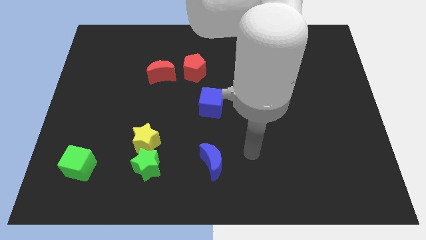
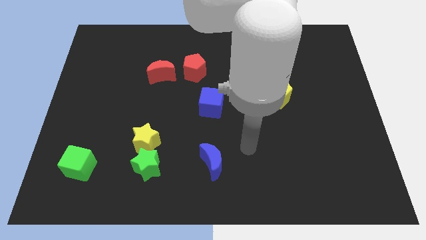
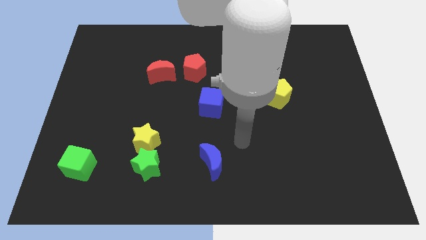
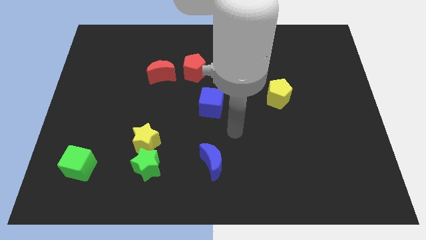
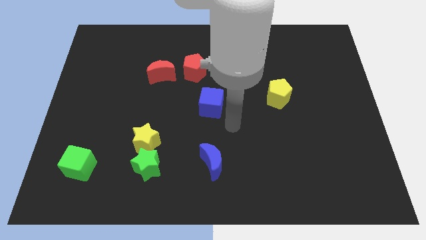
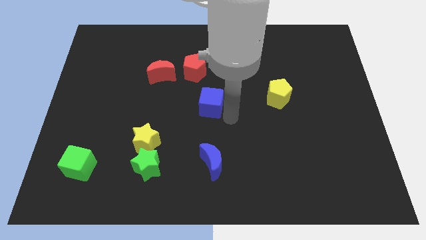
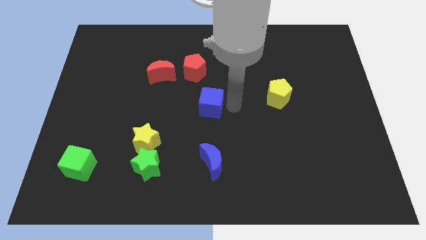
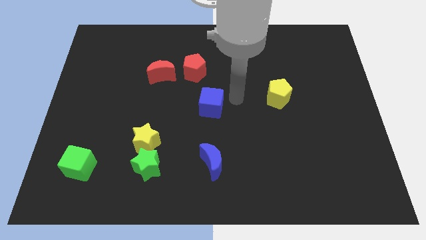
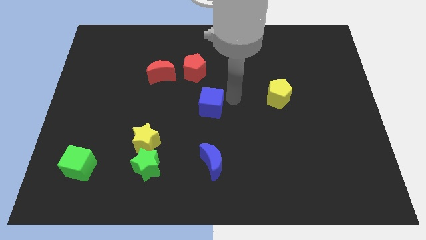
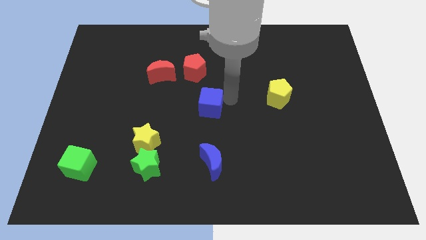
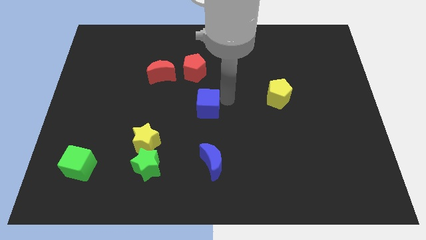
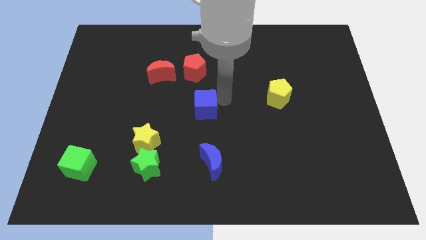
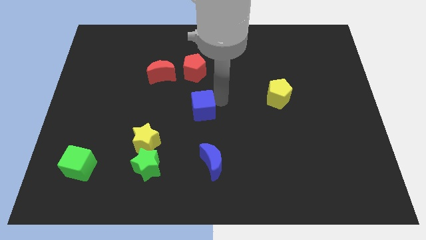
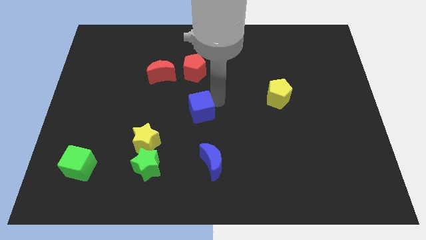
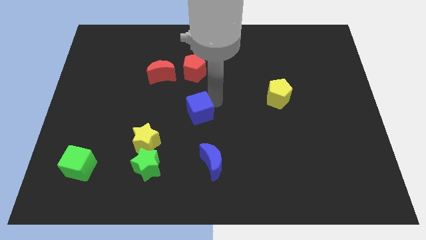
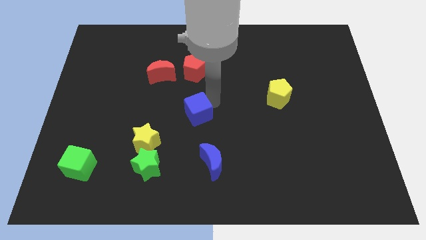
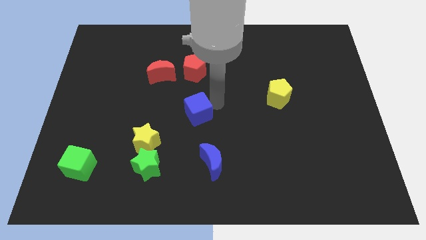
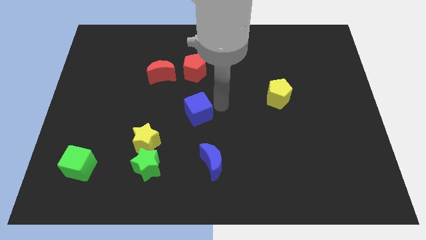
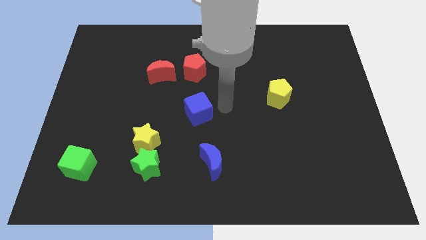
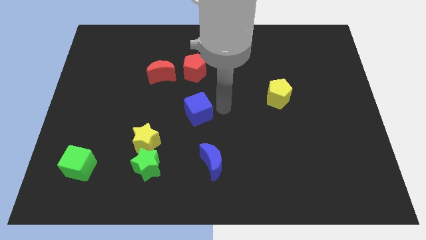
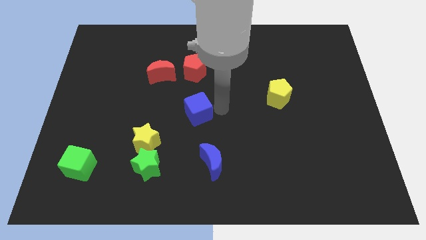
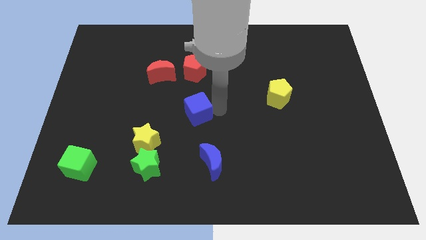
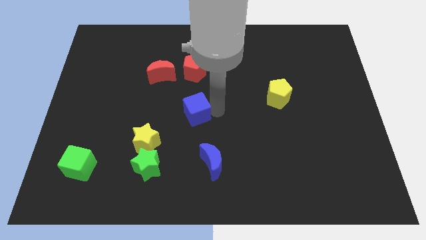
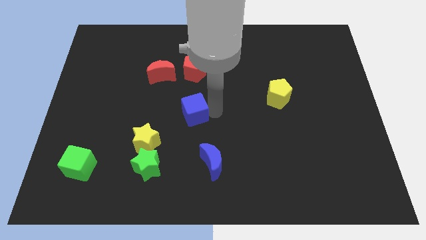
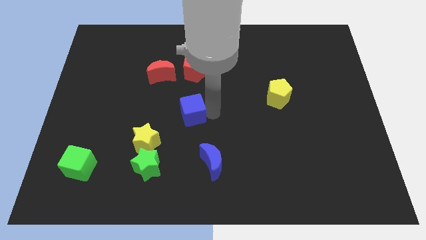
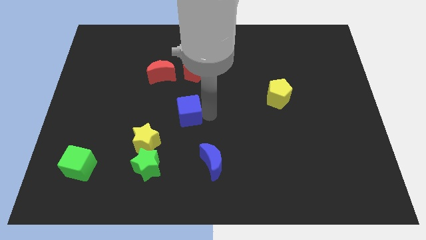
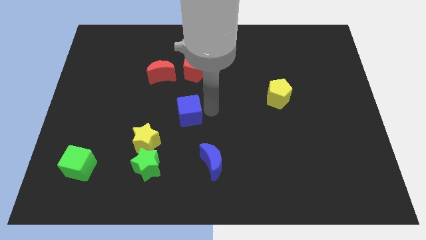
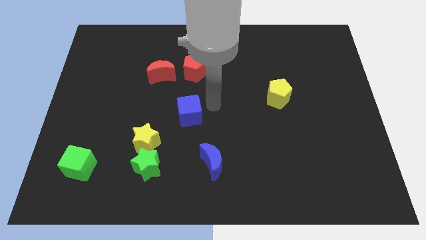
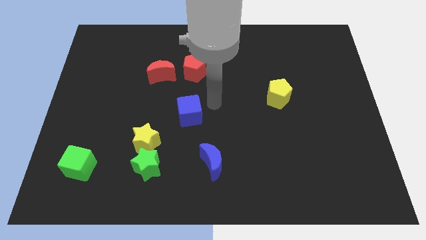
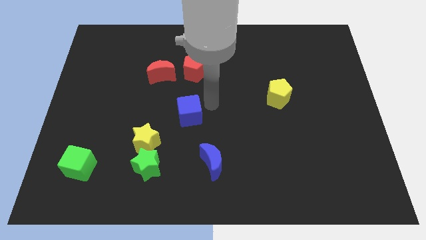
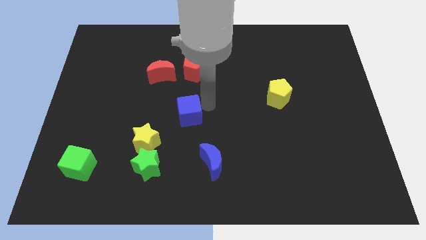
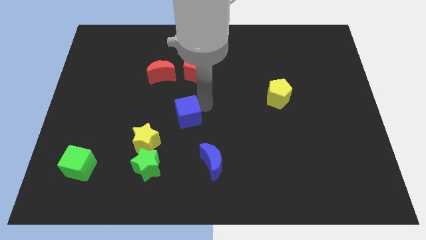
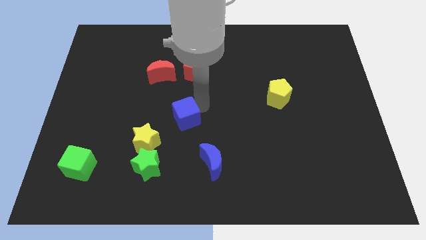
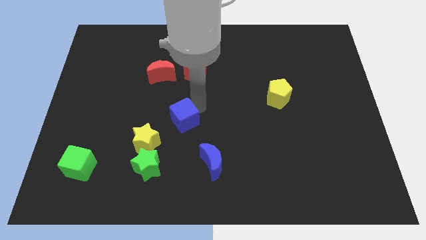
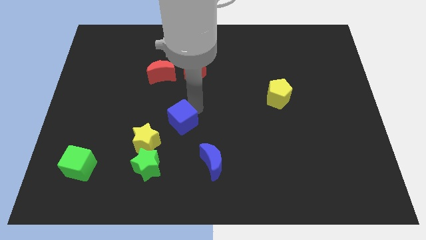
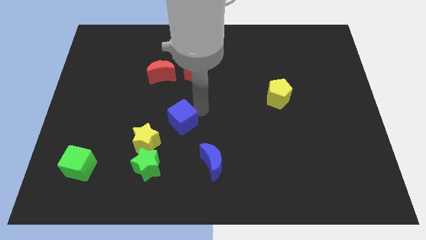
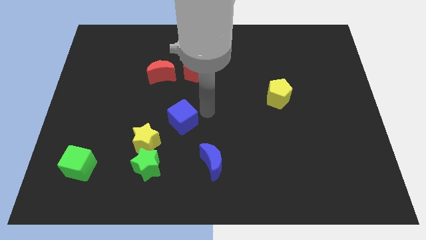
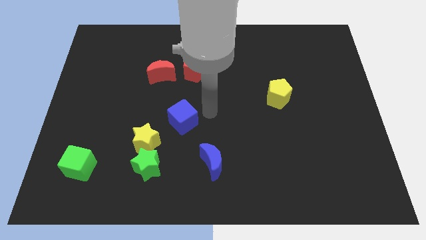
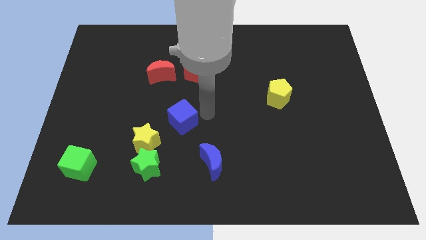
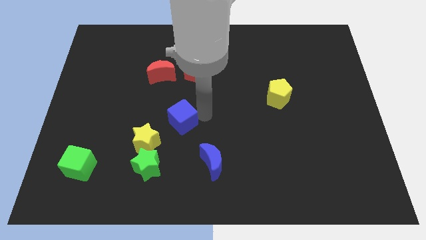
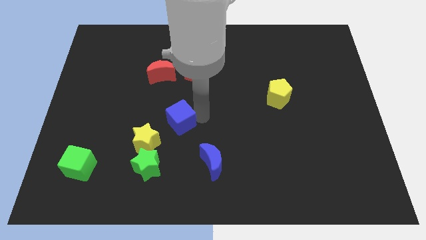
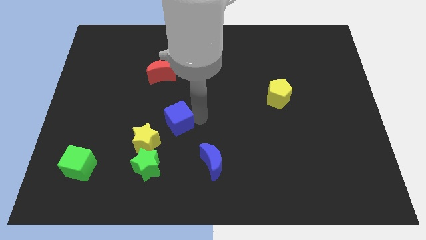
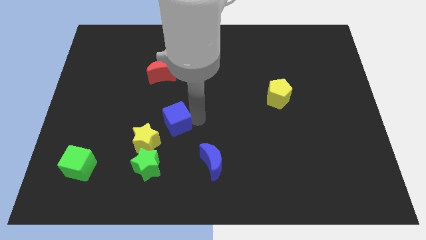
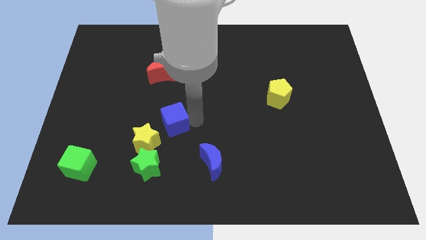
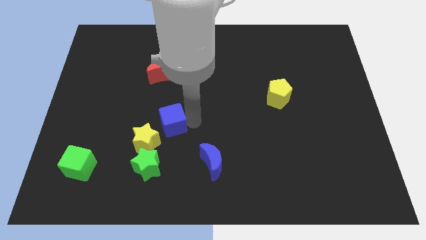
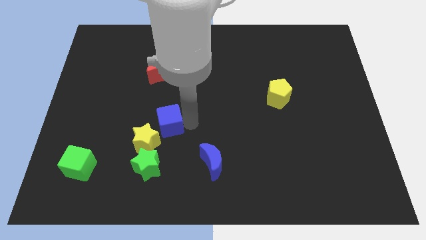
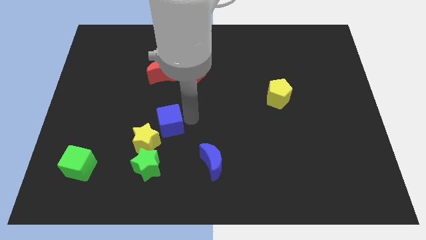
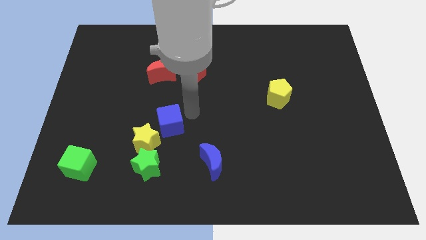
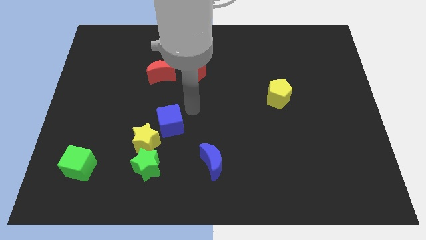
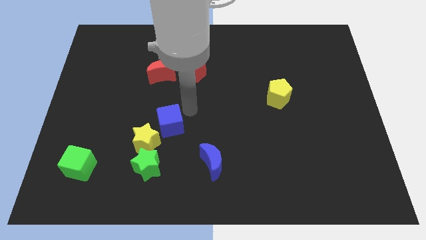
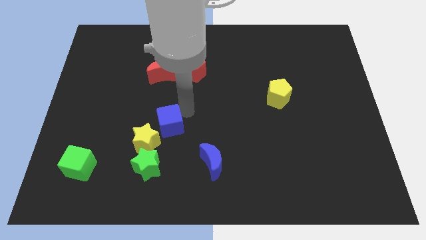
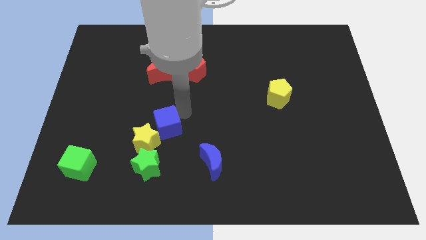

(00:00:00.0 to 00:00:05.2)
put the blue cube towards the yellow star

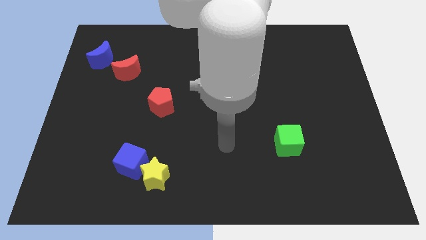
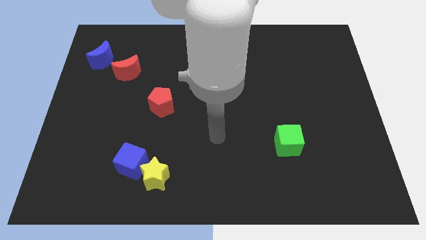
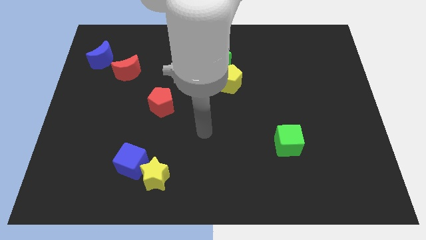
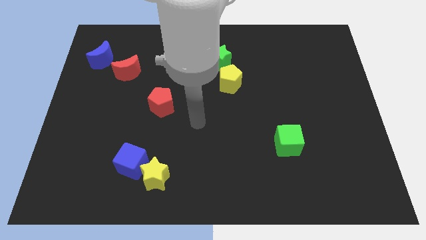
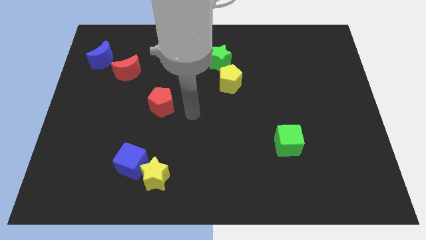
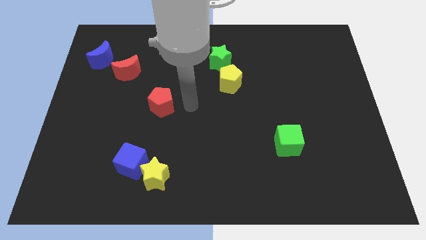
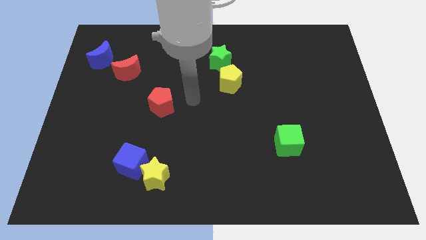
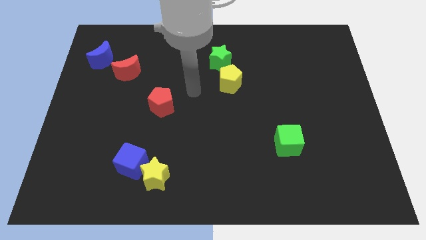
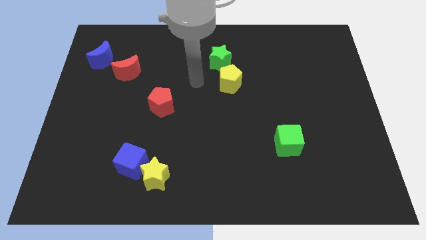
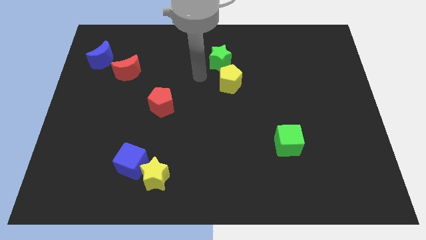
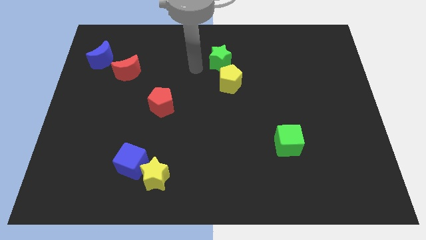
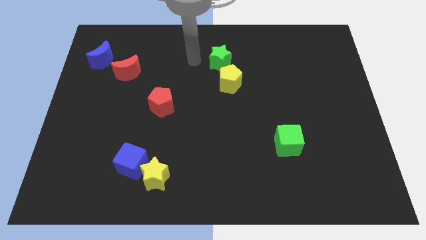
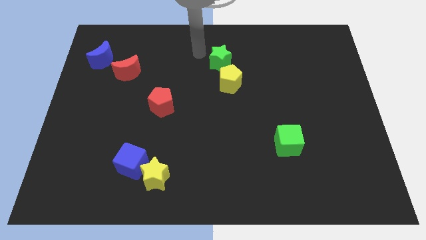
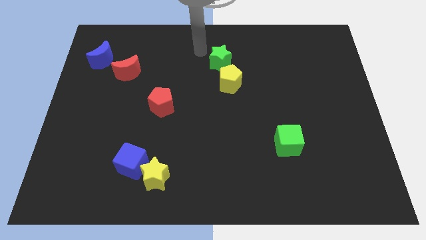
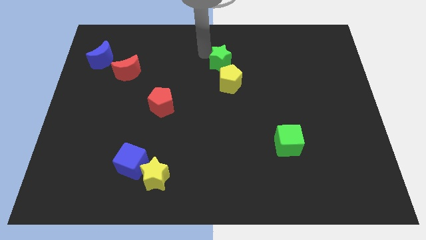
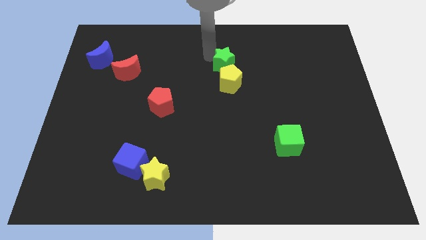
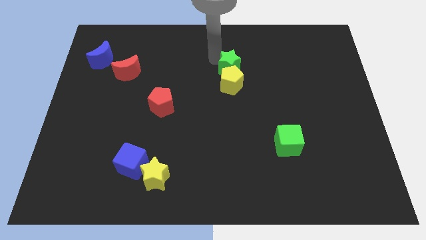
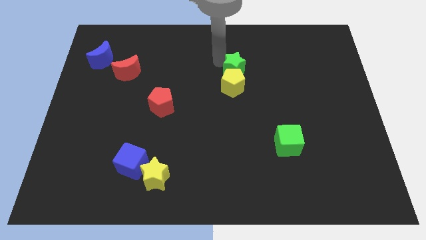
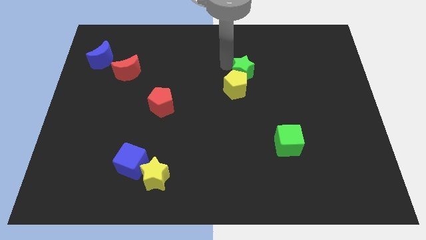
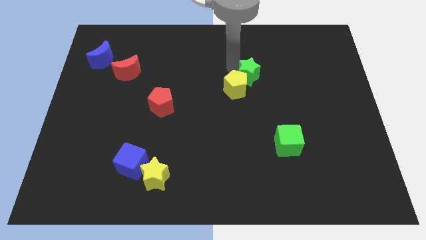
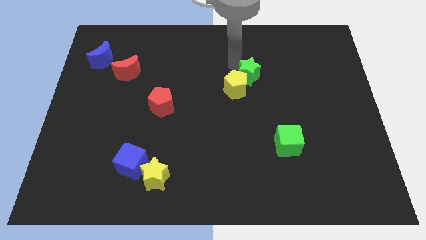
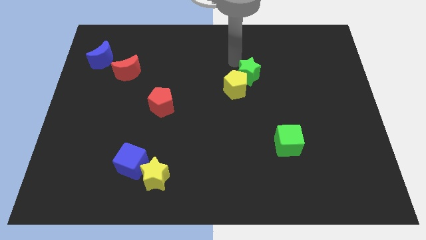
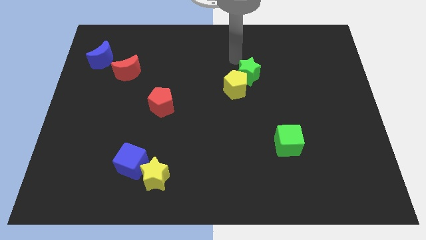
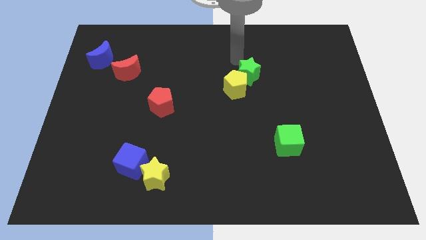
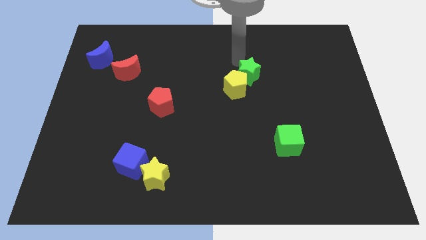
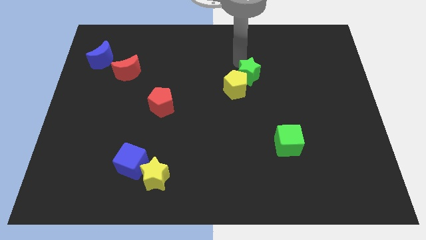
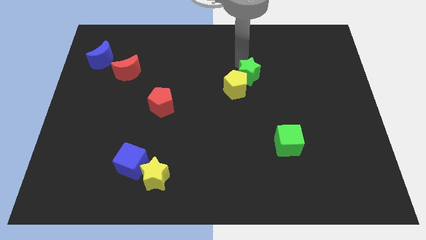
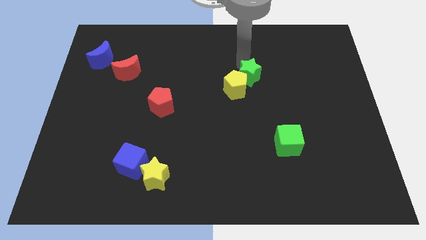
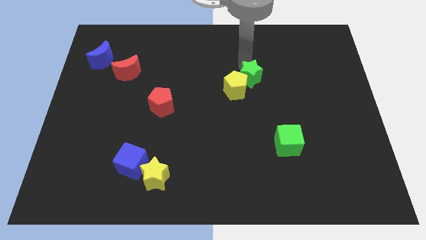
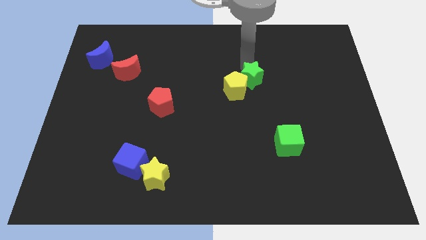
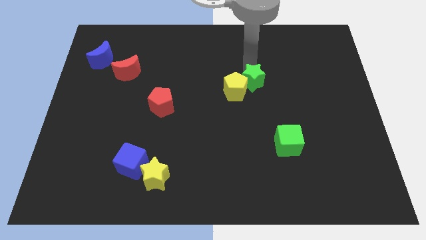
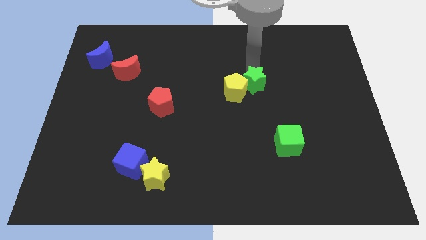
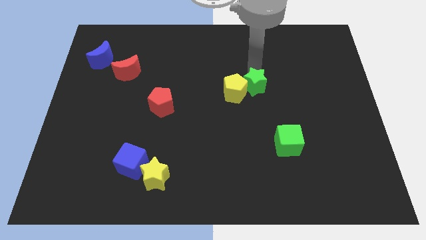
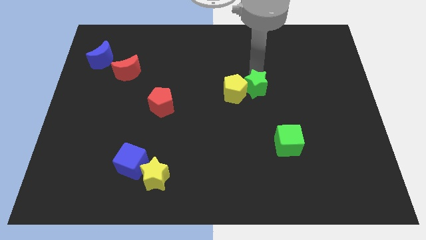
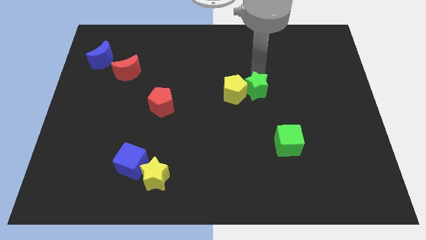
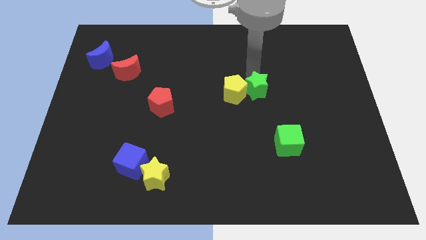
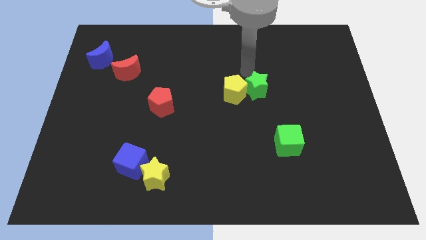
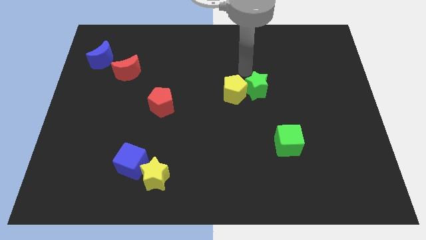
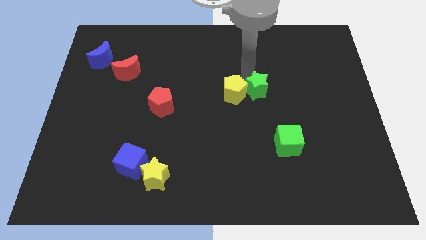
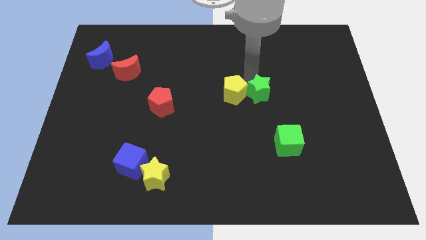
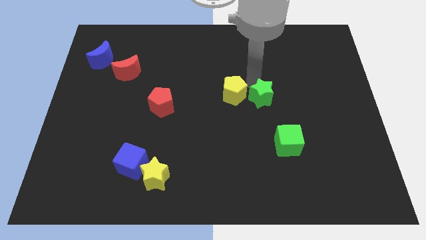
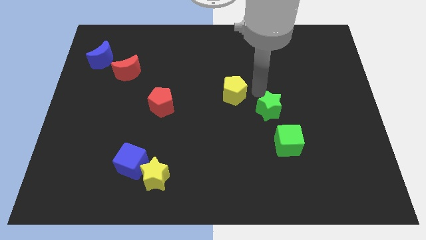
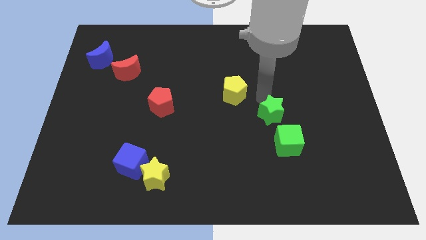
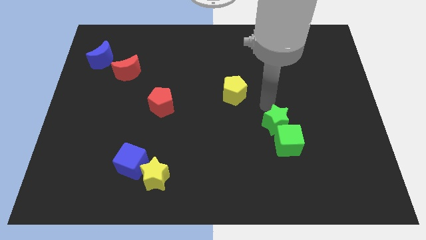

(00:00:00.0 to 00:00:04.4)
put the green star close to the green cube
